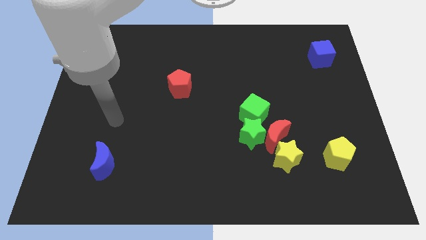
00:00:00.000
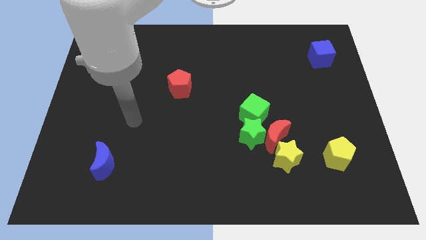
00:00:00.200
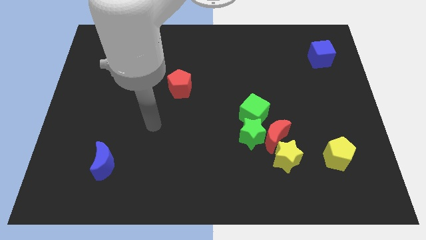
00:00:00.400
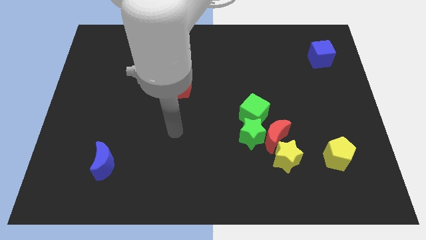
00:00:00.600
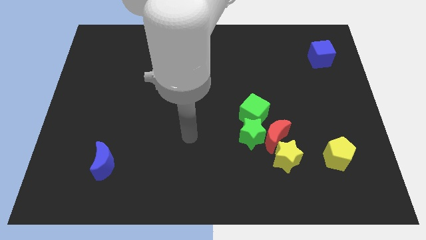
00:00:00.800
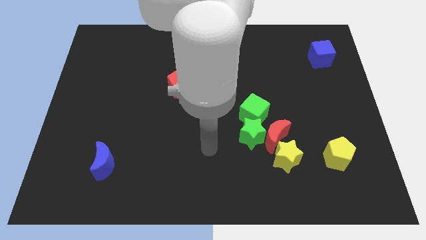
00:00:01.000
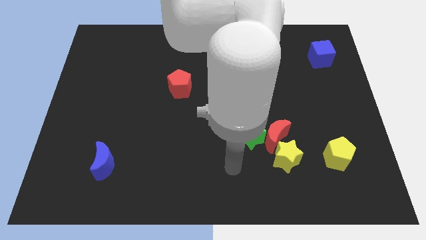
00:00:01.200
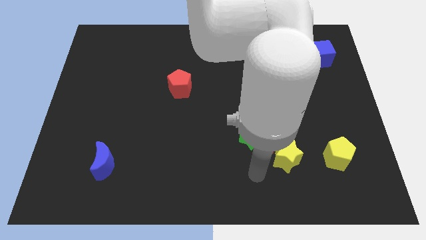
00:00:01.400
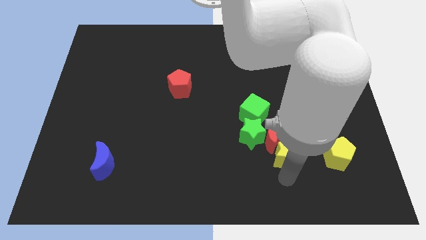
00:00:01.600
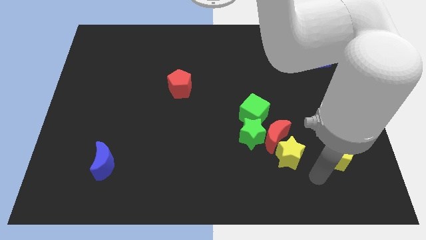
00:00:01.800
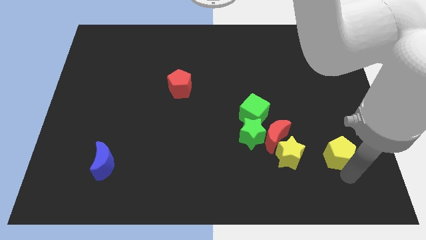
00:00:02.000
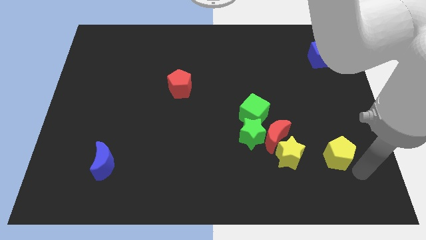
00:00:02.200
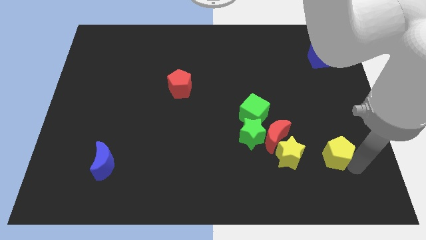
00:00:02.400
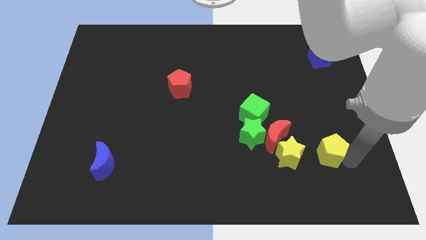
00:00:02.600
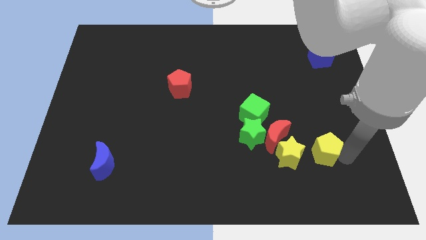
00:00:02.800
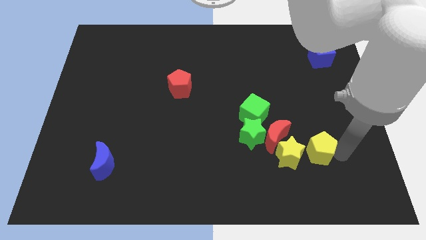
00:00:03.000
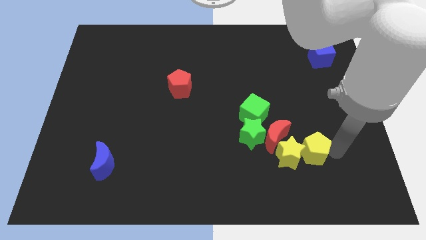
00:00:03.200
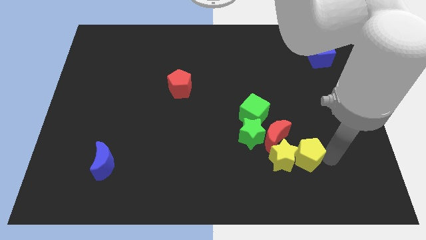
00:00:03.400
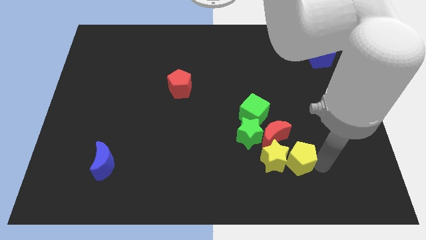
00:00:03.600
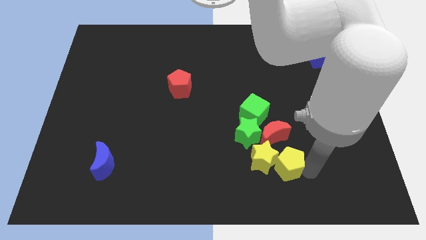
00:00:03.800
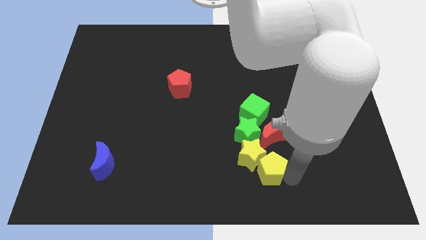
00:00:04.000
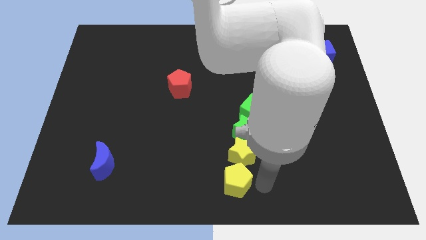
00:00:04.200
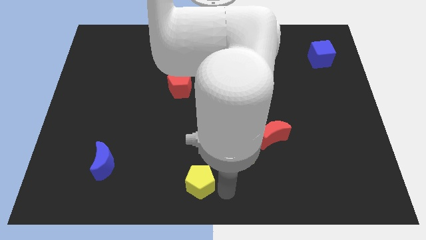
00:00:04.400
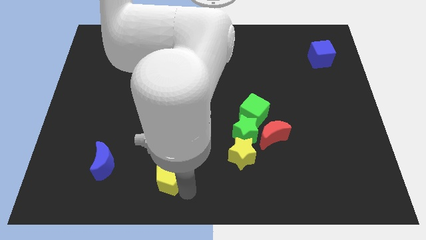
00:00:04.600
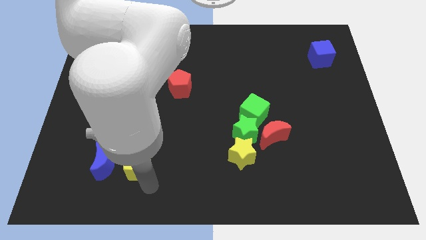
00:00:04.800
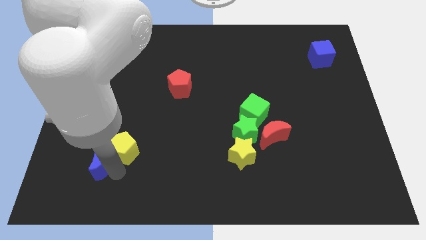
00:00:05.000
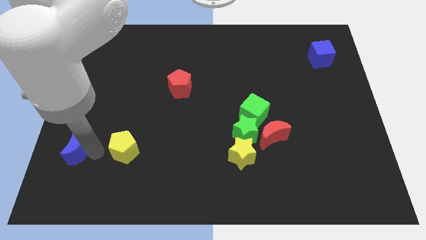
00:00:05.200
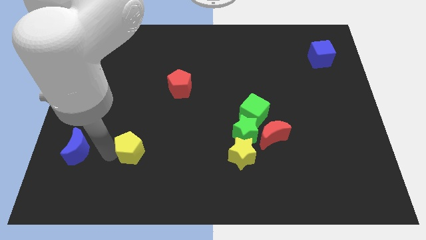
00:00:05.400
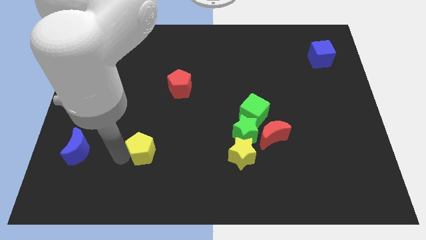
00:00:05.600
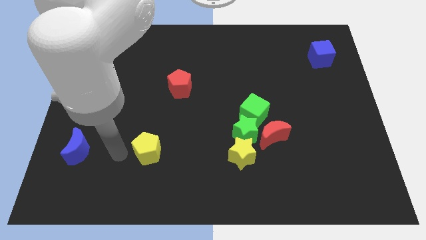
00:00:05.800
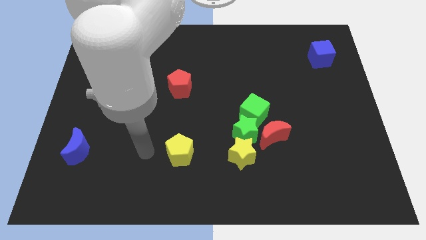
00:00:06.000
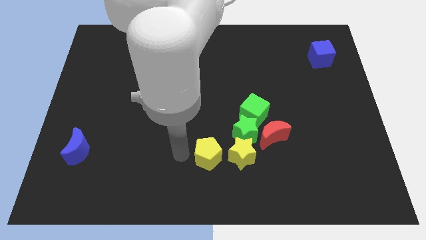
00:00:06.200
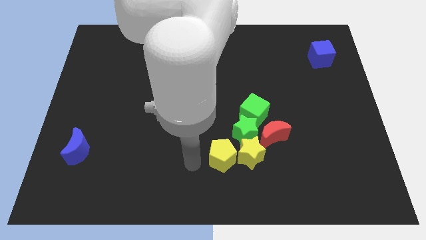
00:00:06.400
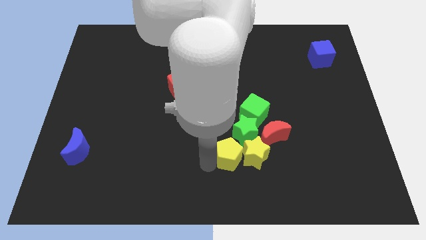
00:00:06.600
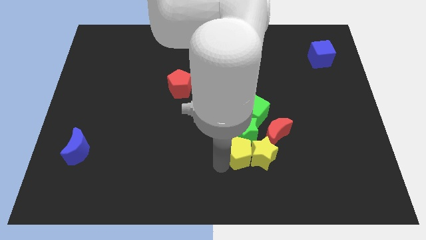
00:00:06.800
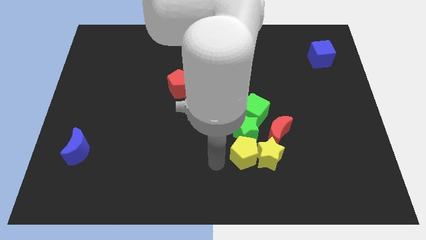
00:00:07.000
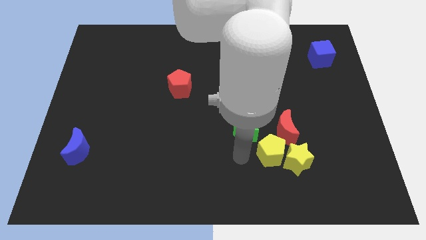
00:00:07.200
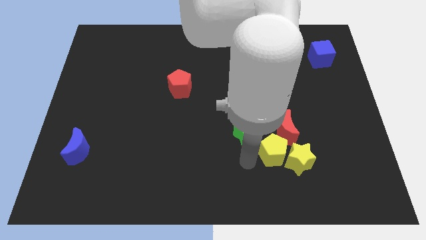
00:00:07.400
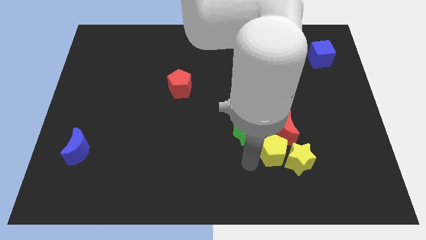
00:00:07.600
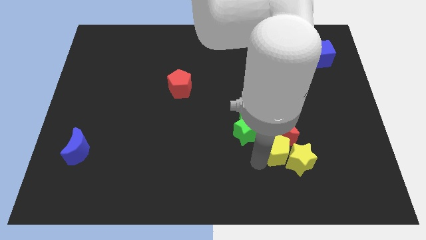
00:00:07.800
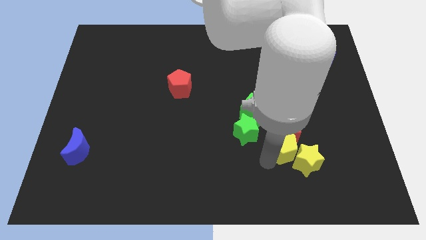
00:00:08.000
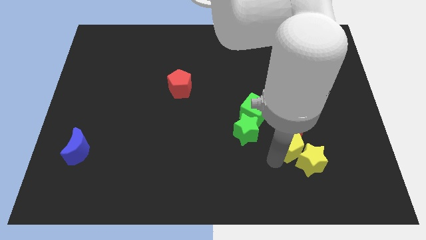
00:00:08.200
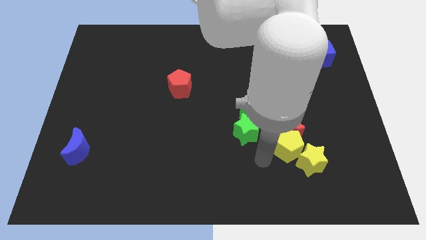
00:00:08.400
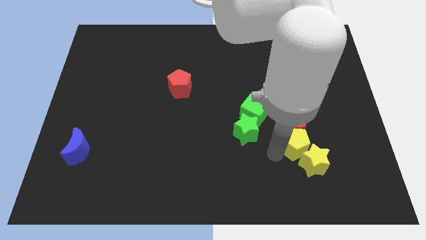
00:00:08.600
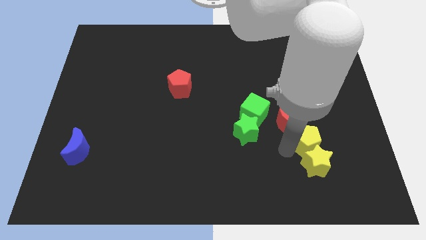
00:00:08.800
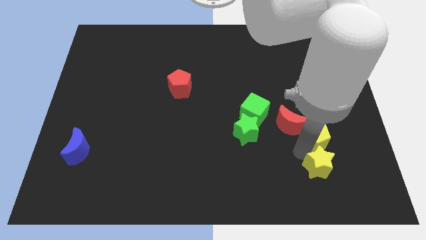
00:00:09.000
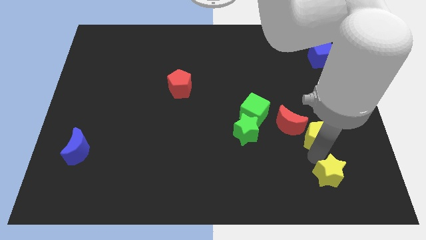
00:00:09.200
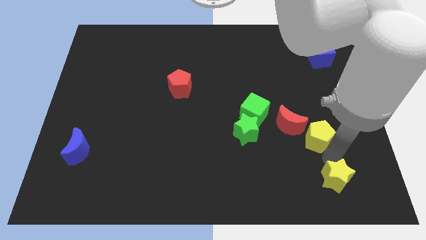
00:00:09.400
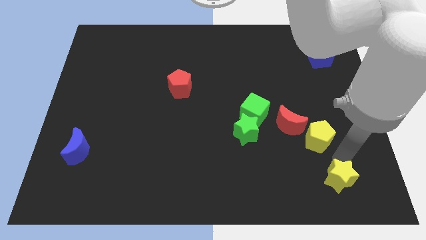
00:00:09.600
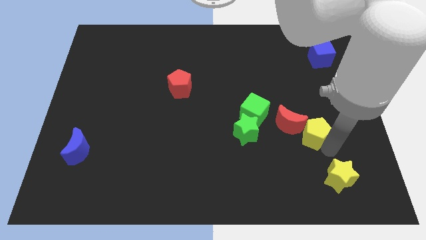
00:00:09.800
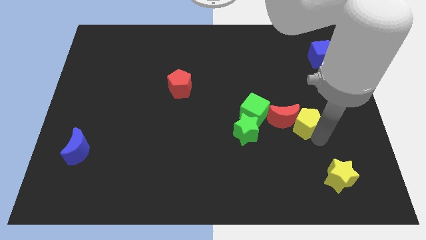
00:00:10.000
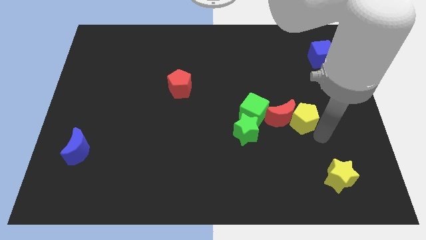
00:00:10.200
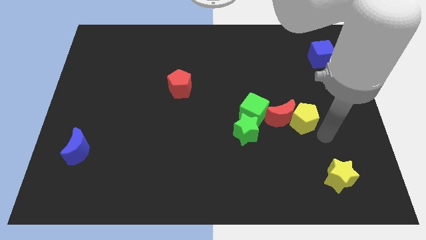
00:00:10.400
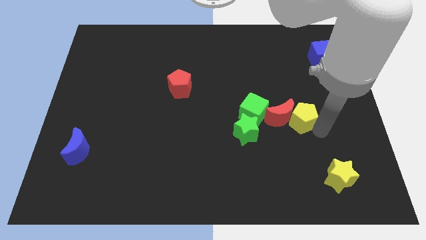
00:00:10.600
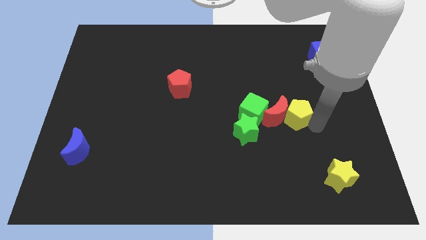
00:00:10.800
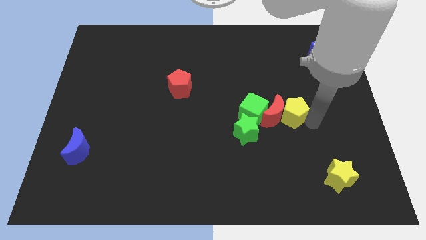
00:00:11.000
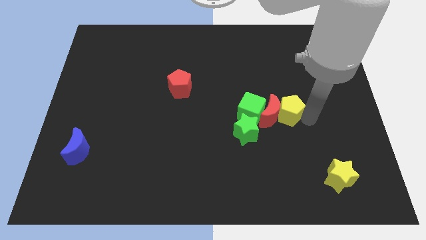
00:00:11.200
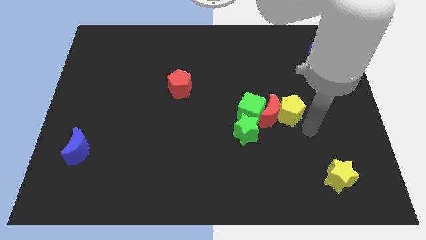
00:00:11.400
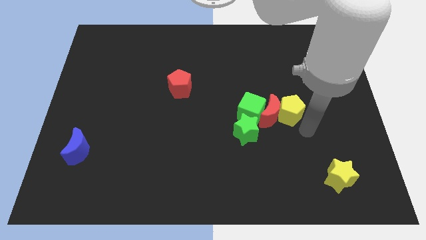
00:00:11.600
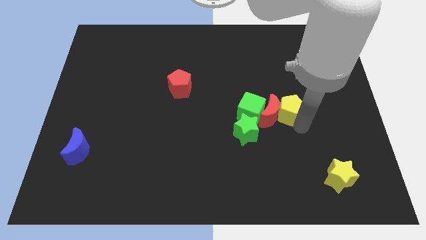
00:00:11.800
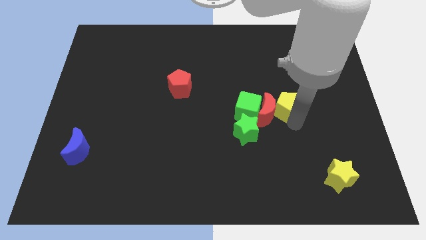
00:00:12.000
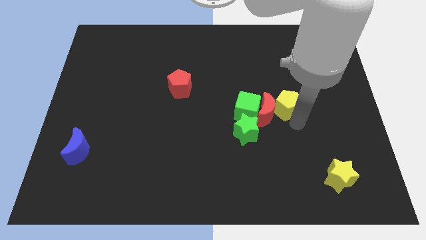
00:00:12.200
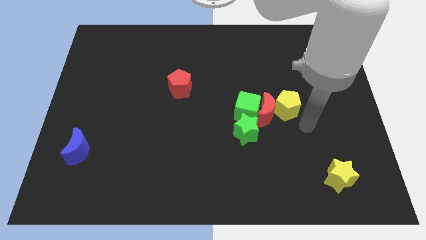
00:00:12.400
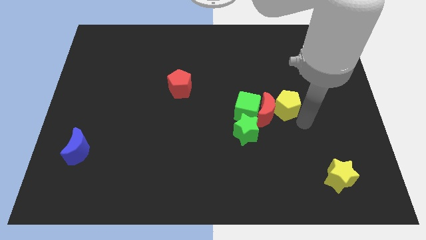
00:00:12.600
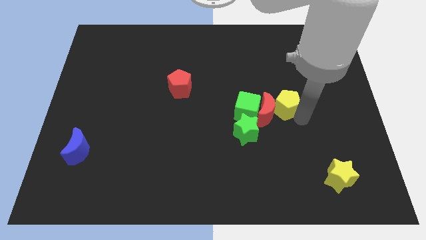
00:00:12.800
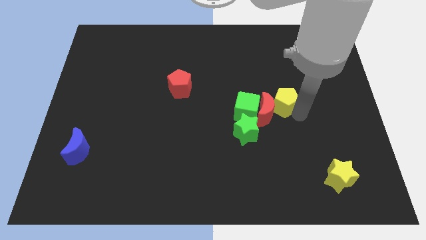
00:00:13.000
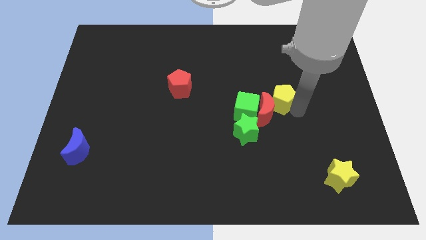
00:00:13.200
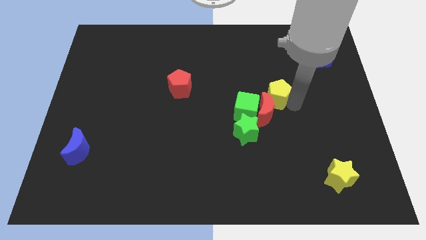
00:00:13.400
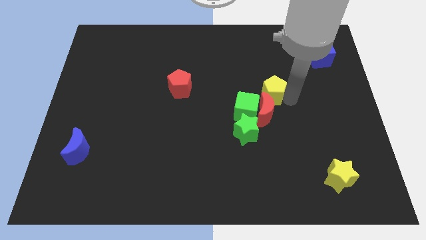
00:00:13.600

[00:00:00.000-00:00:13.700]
move the yellow pentagon upwards and left

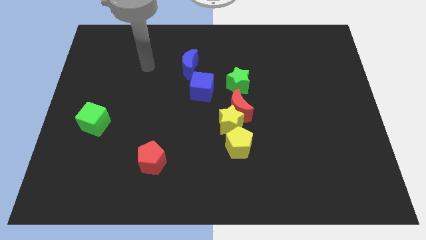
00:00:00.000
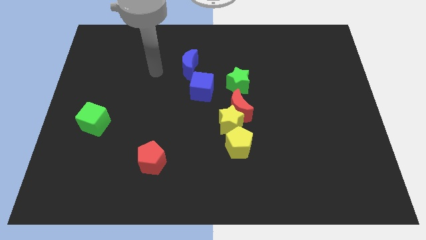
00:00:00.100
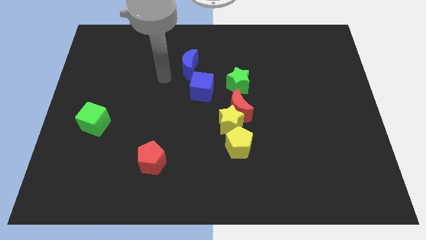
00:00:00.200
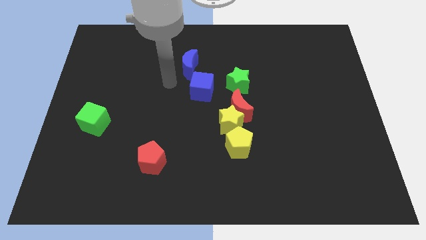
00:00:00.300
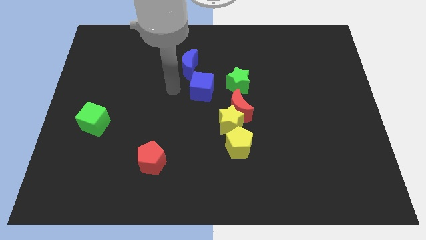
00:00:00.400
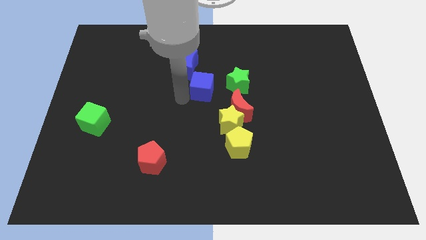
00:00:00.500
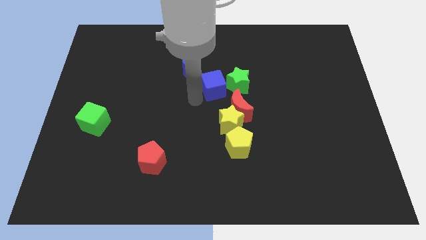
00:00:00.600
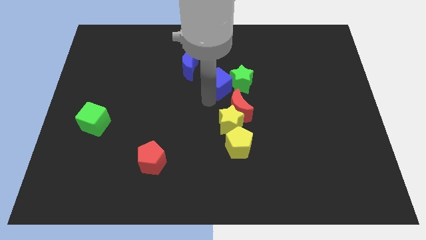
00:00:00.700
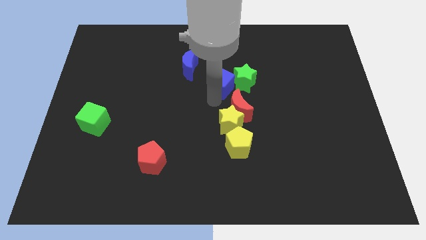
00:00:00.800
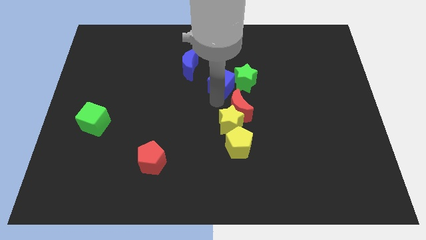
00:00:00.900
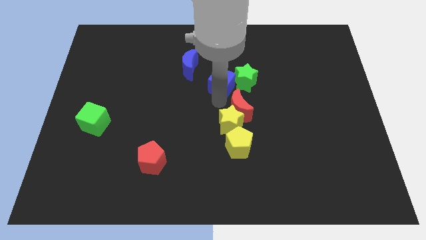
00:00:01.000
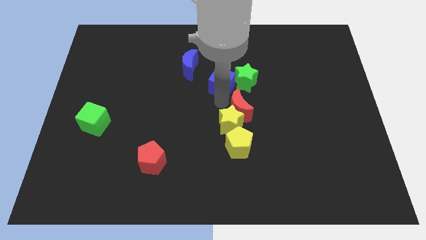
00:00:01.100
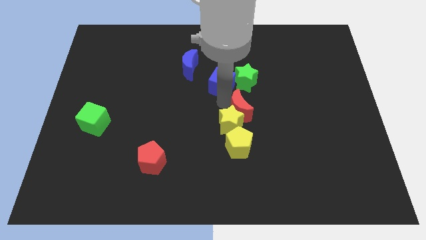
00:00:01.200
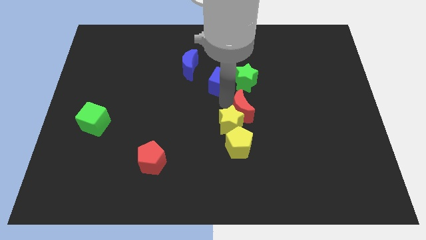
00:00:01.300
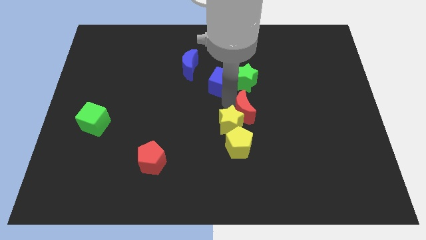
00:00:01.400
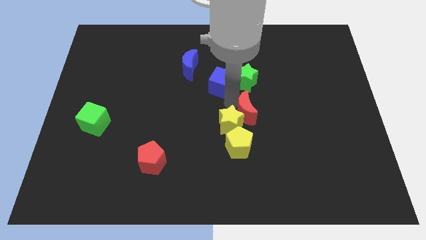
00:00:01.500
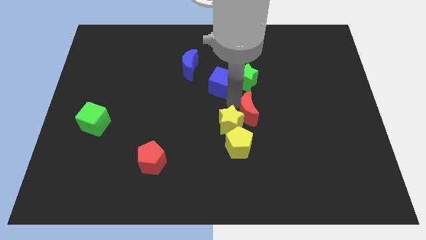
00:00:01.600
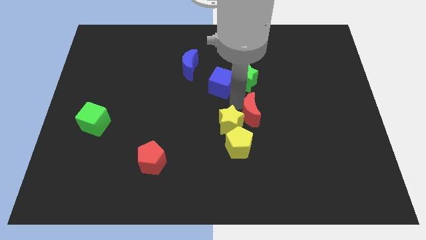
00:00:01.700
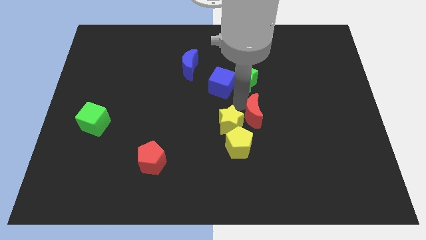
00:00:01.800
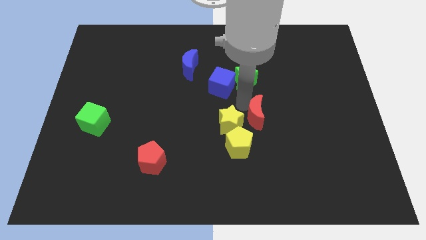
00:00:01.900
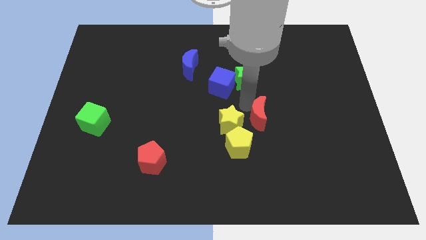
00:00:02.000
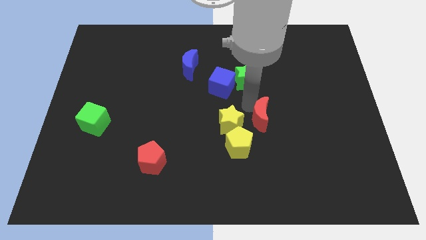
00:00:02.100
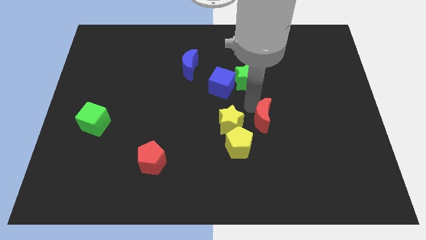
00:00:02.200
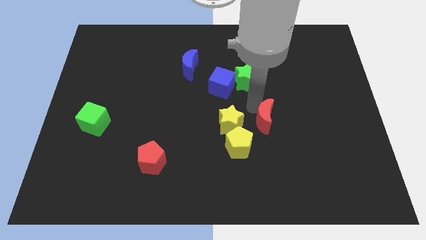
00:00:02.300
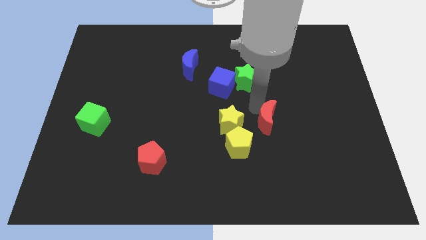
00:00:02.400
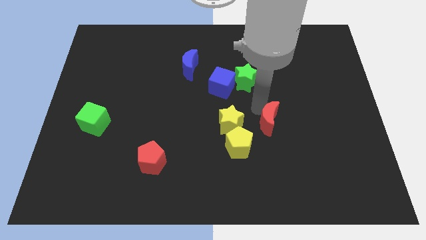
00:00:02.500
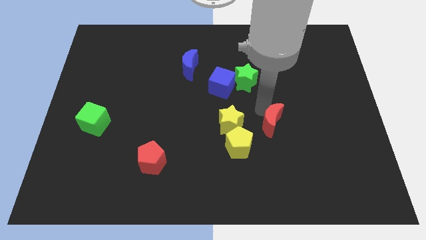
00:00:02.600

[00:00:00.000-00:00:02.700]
slide the red moon a little bit down and to the right diagonally
